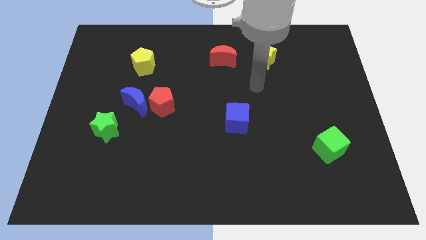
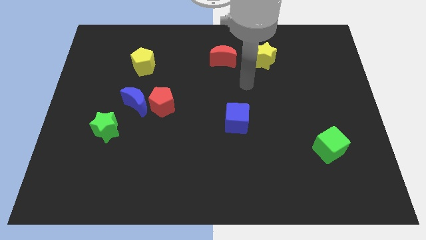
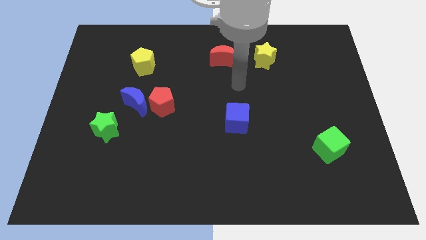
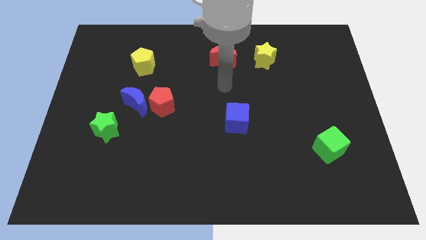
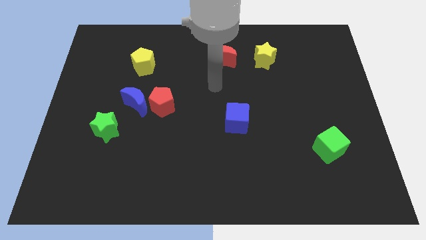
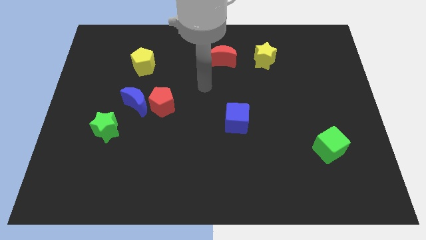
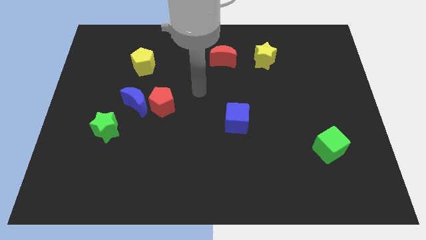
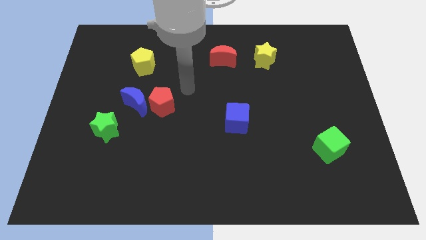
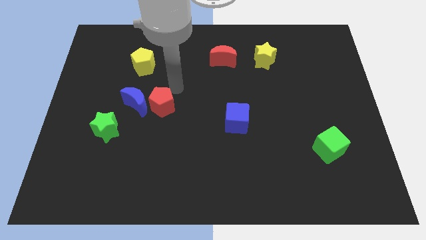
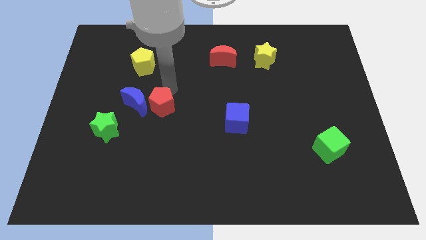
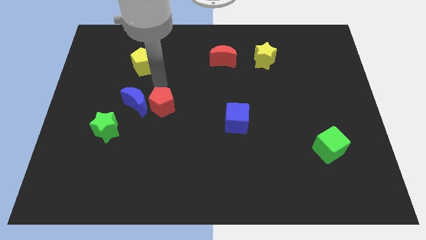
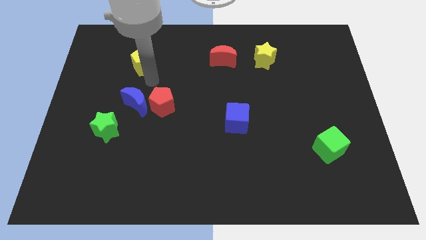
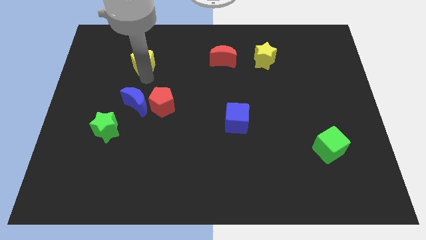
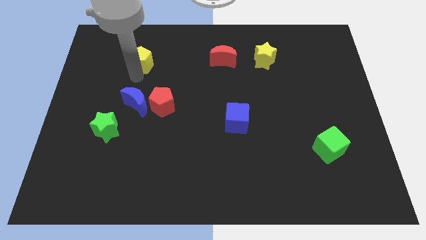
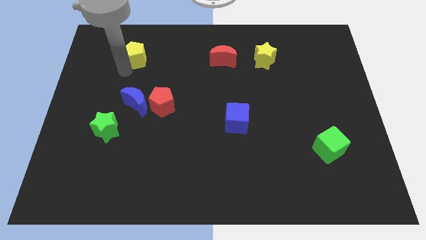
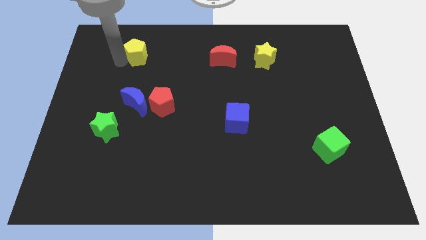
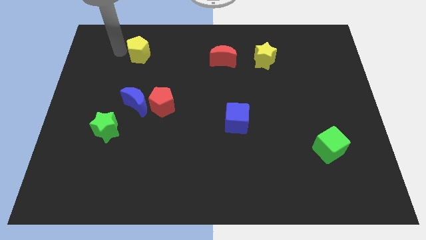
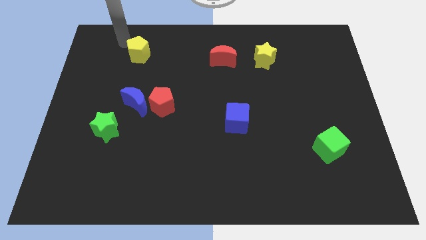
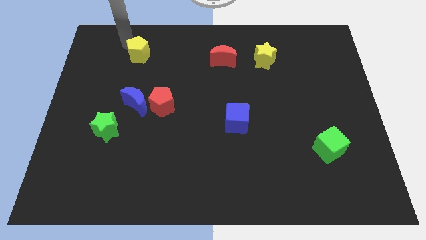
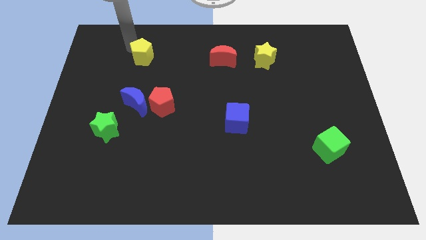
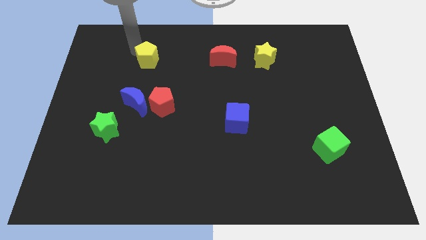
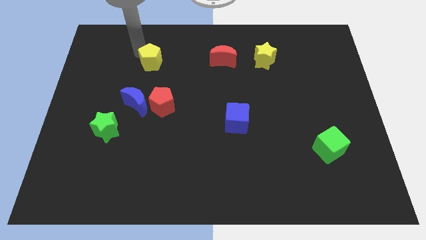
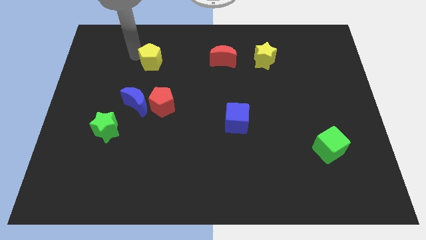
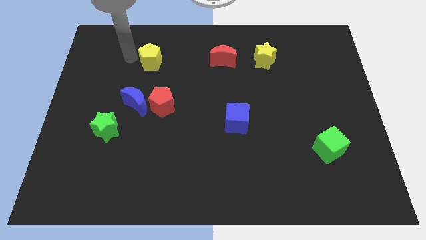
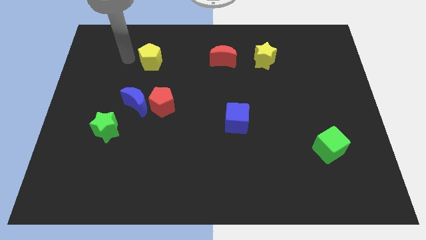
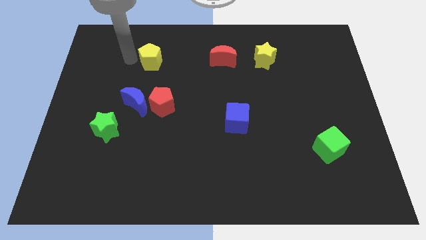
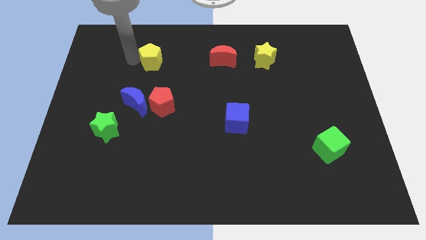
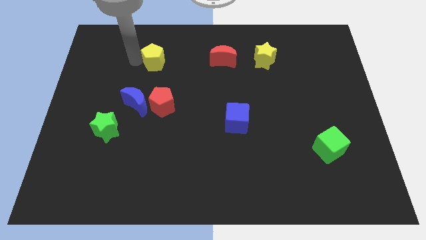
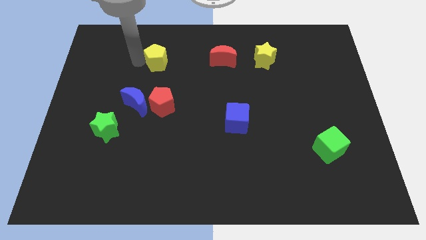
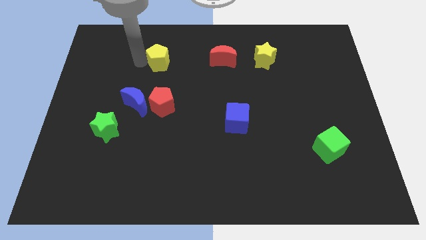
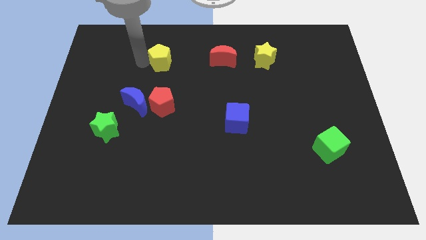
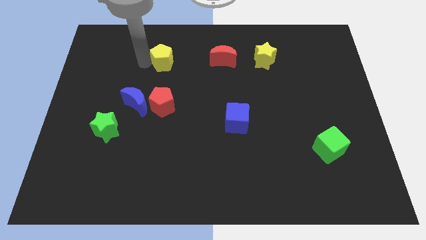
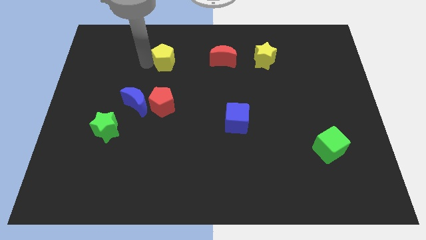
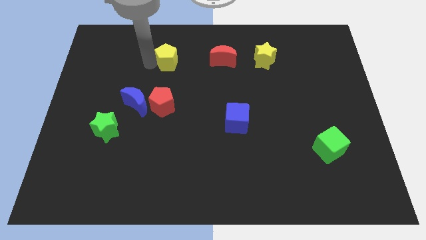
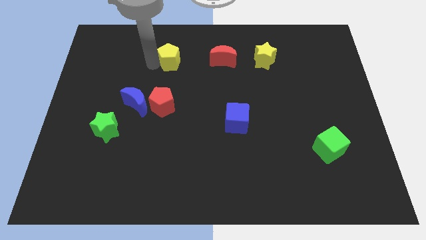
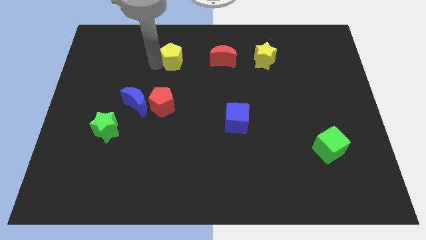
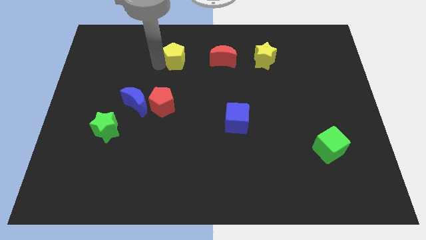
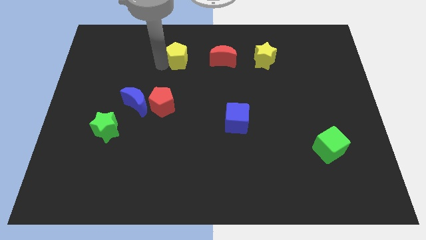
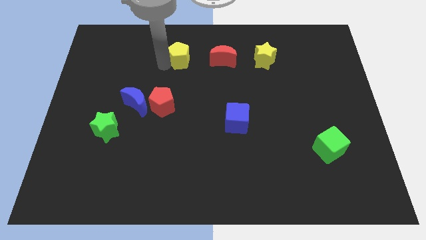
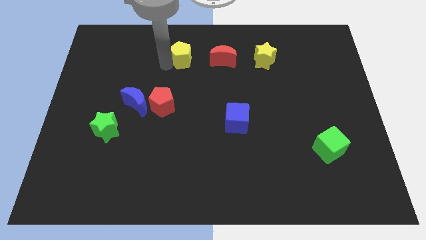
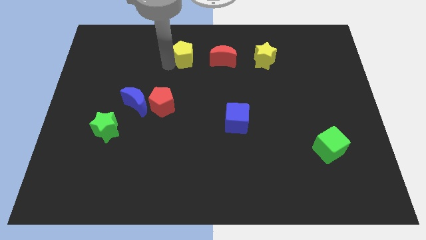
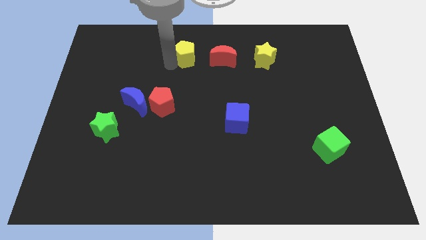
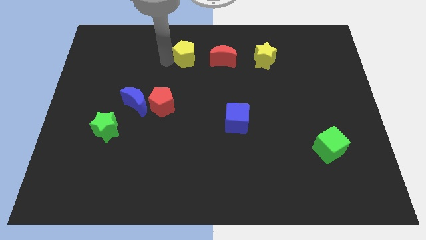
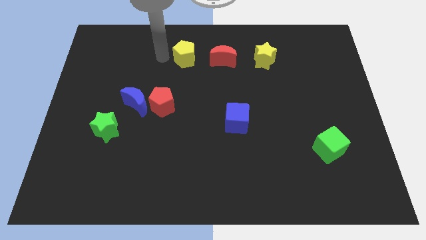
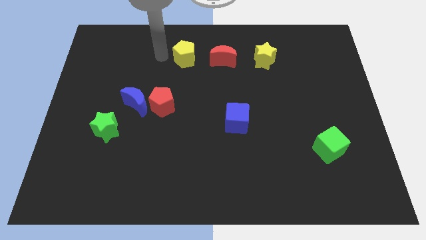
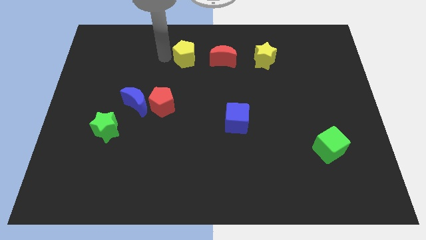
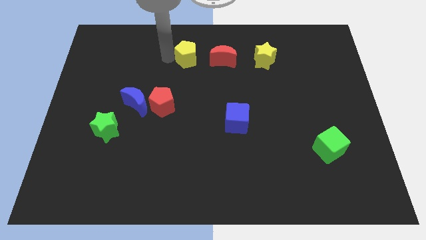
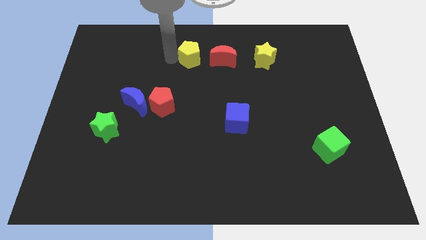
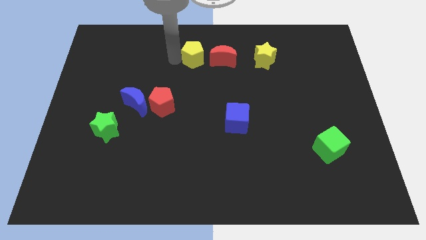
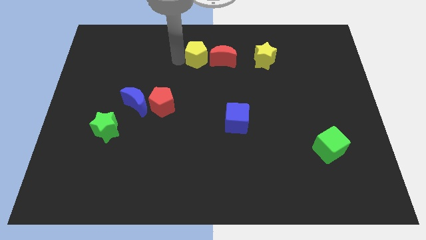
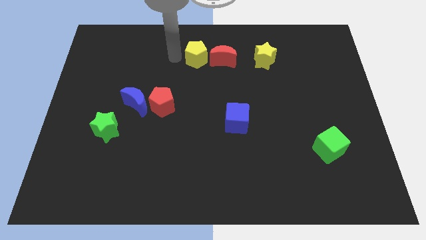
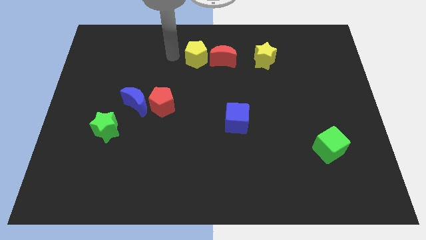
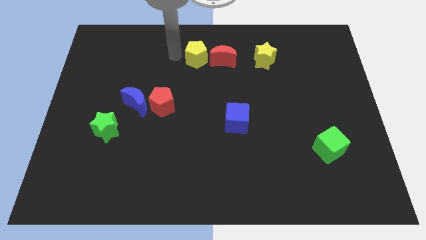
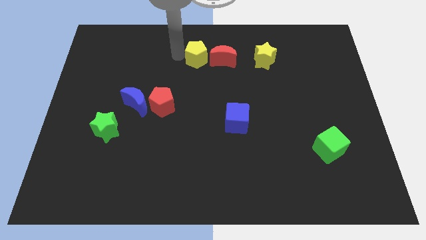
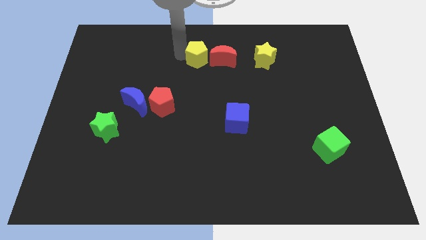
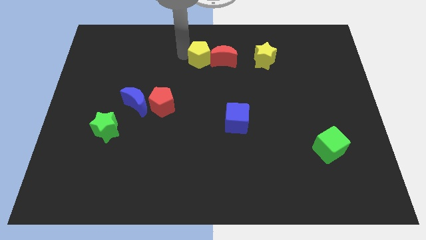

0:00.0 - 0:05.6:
put the yellow pentagon close to the red moon

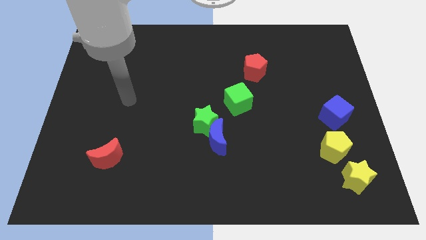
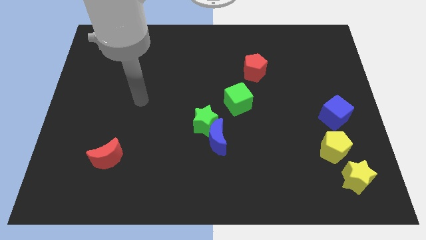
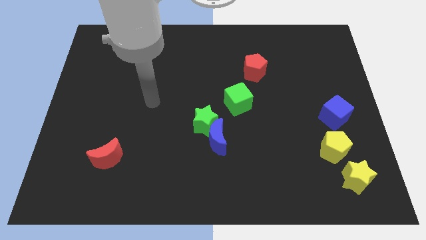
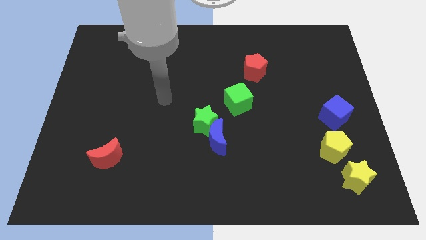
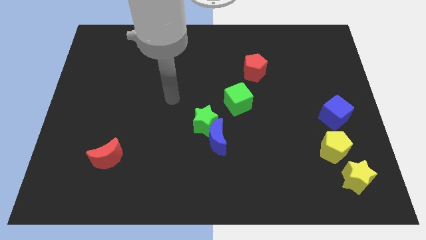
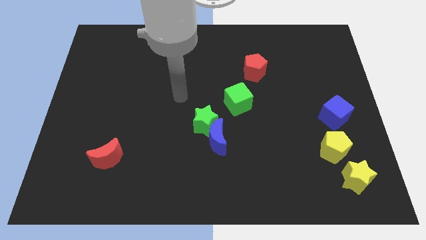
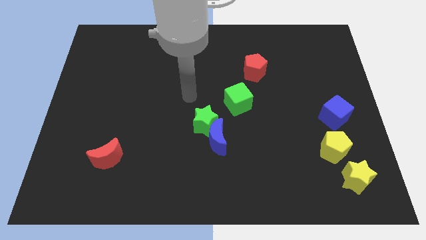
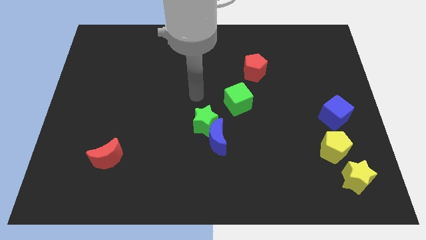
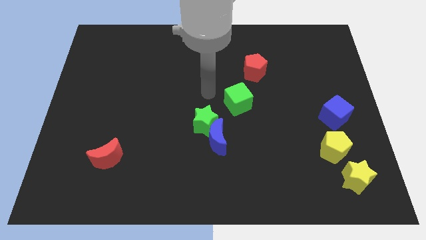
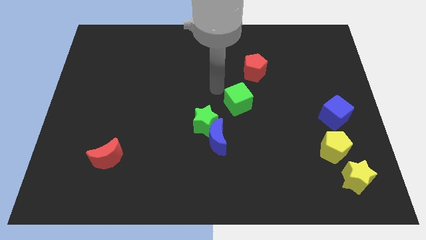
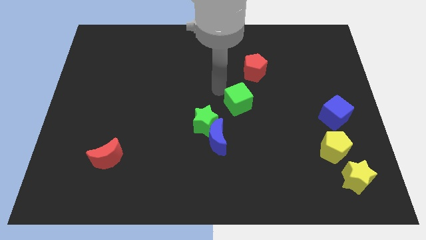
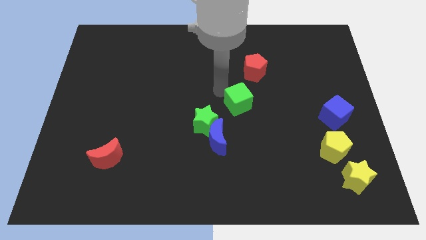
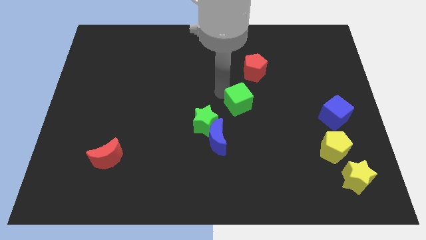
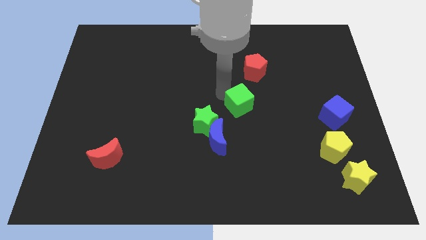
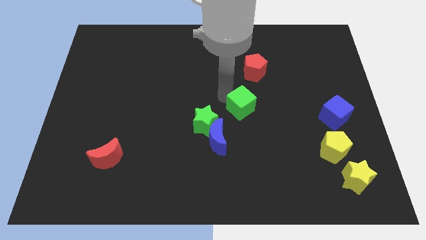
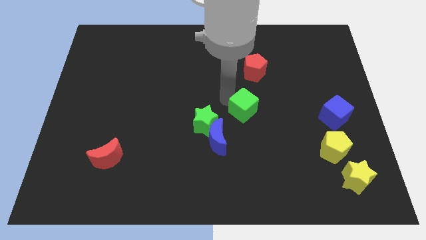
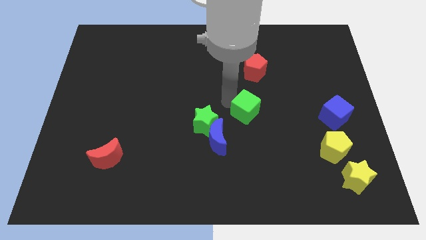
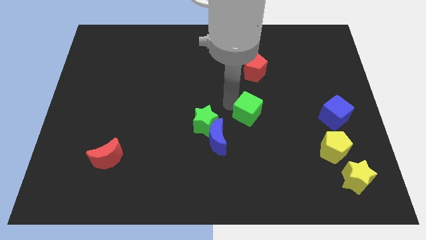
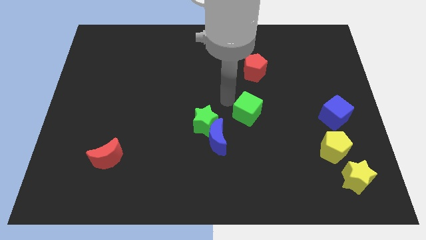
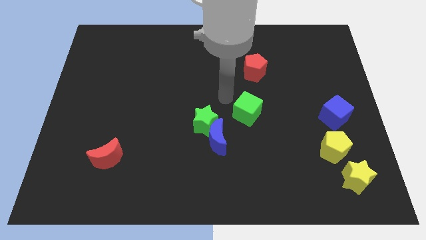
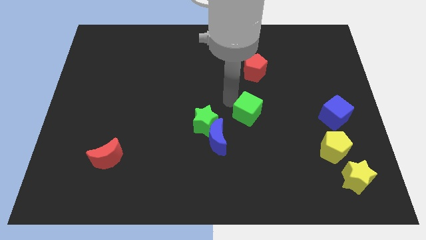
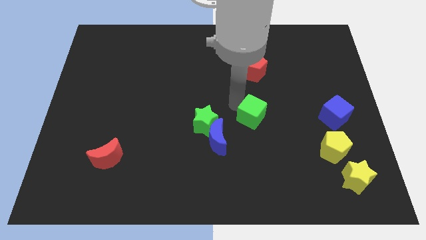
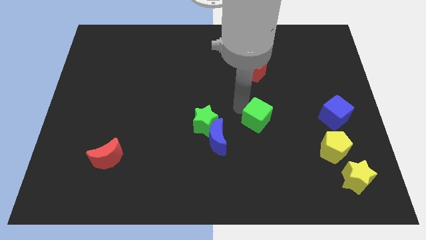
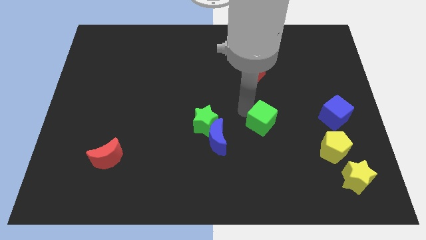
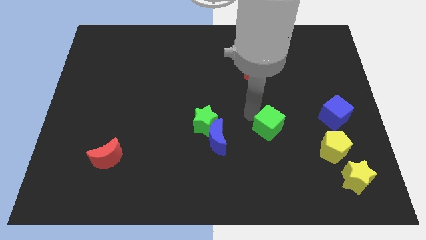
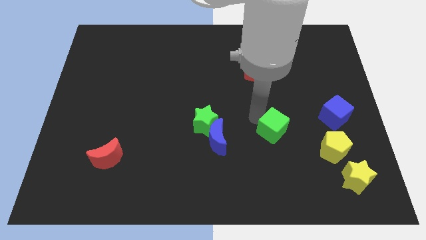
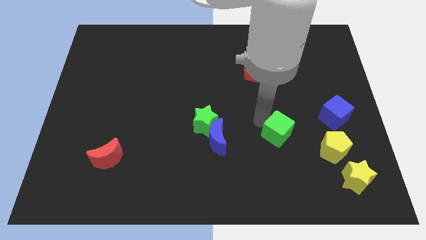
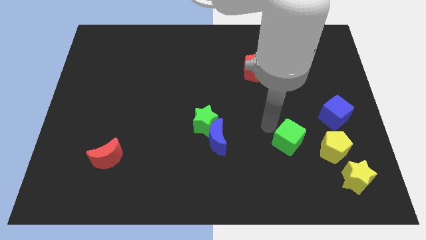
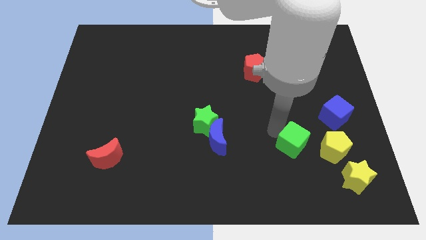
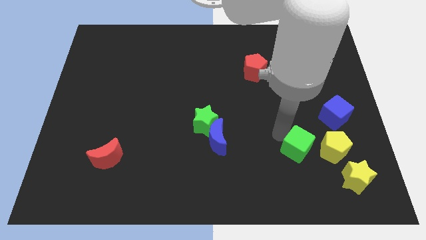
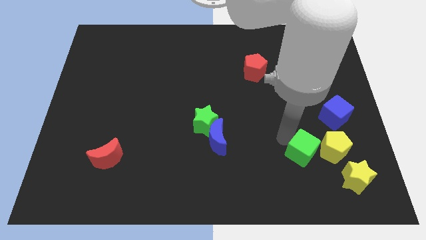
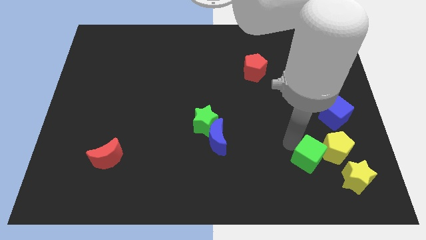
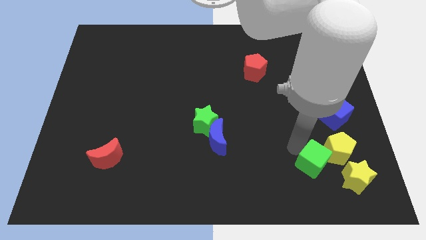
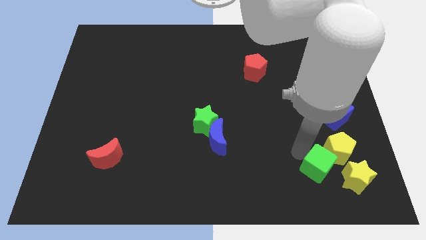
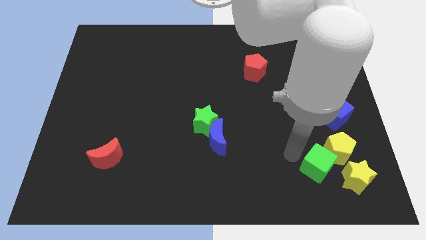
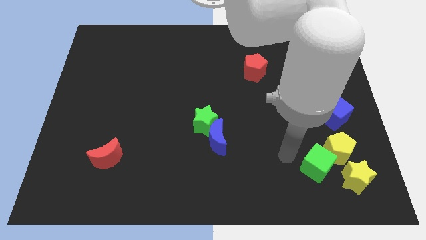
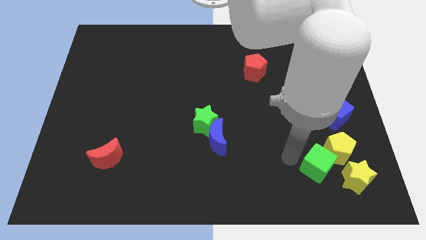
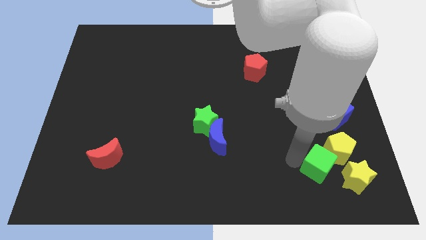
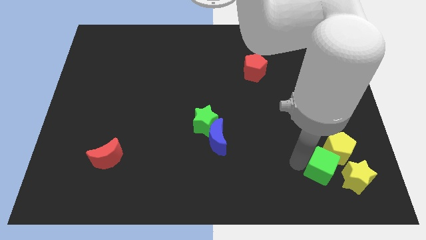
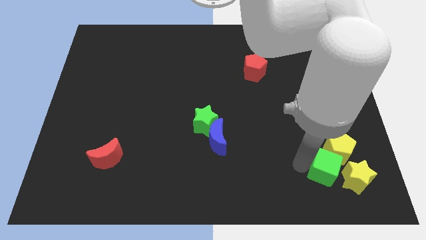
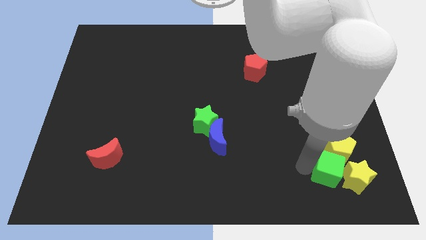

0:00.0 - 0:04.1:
move the green cube close to the yellow star
